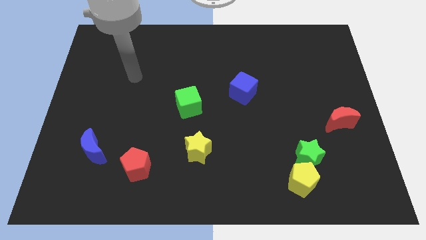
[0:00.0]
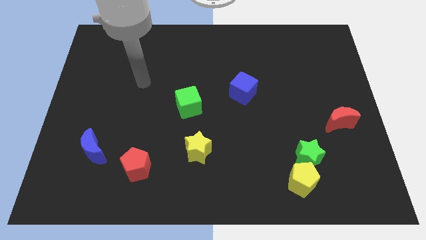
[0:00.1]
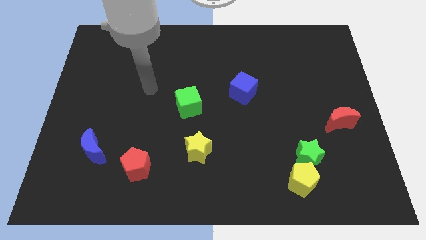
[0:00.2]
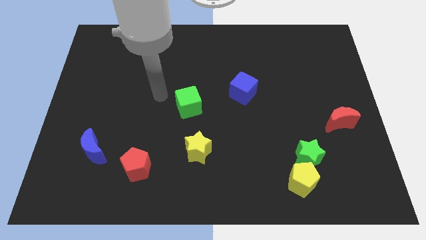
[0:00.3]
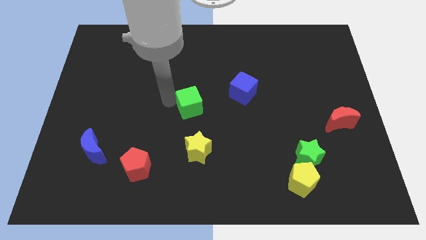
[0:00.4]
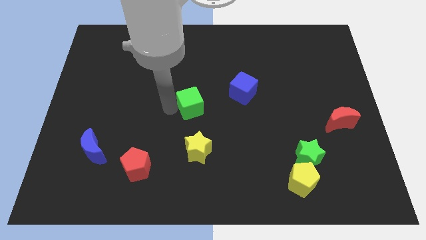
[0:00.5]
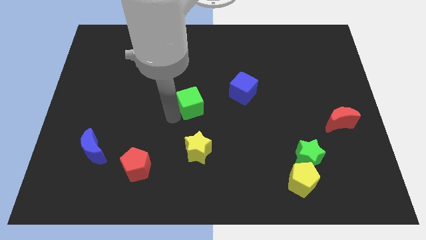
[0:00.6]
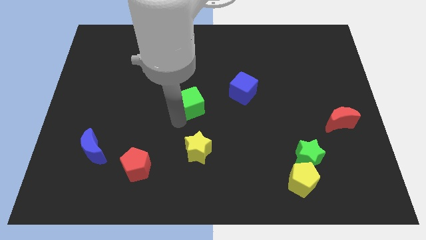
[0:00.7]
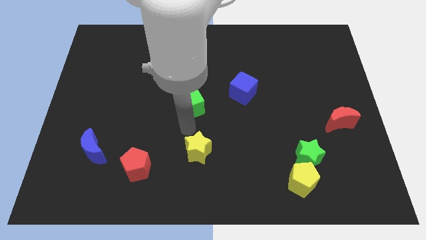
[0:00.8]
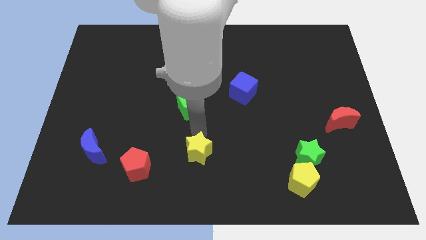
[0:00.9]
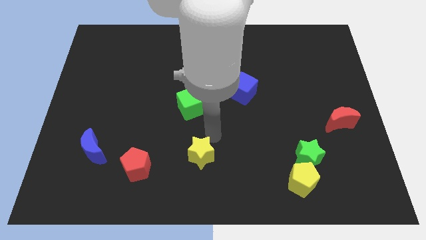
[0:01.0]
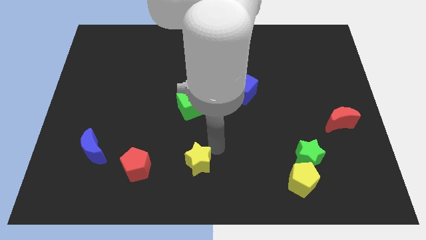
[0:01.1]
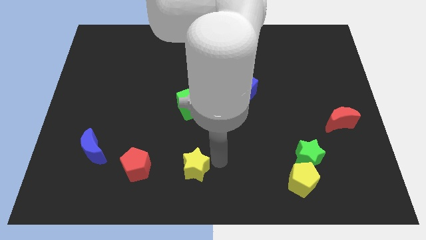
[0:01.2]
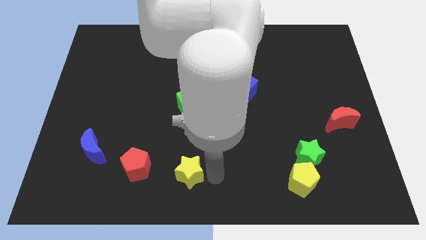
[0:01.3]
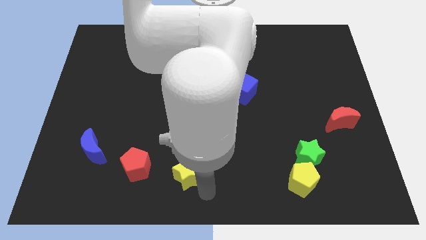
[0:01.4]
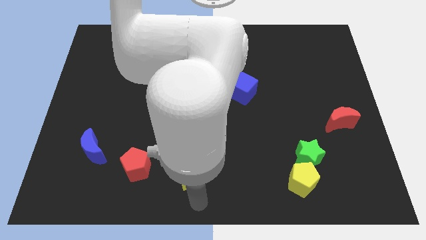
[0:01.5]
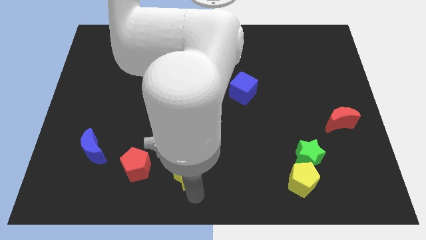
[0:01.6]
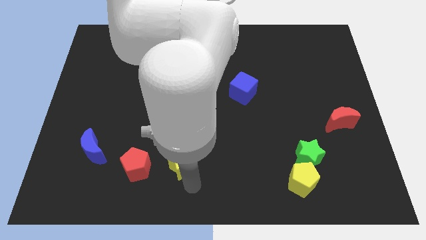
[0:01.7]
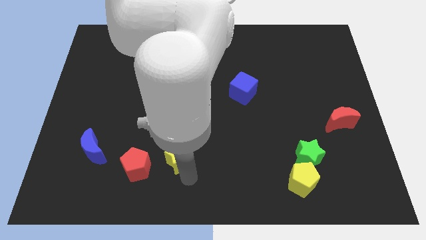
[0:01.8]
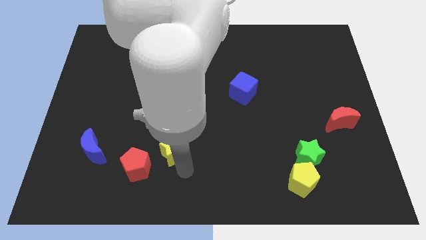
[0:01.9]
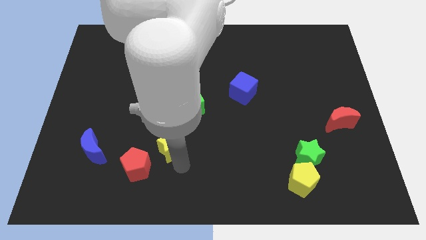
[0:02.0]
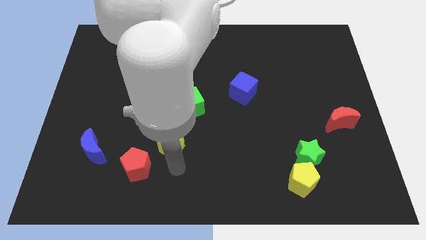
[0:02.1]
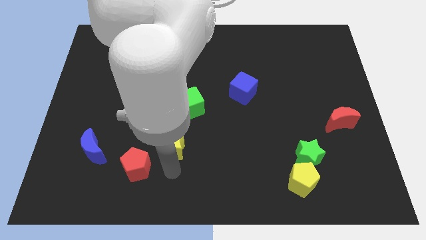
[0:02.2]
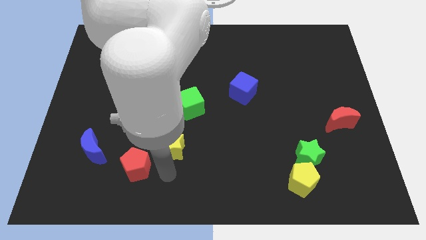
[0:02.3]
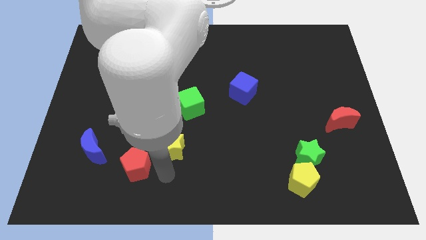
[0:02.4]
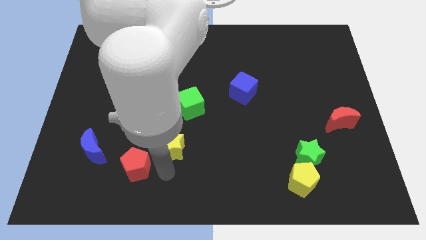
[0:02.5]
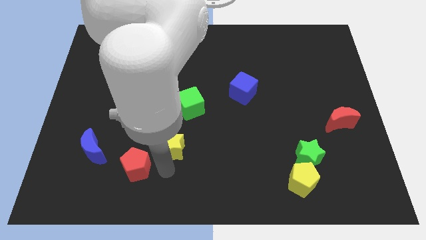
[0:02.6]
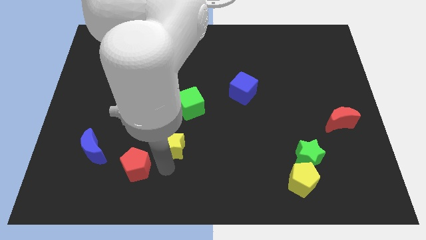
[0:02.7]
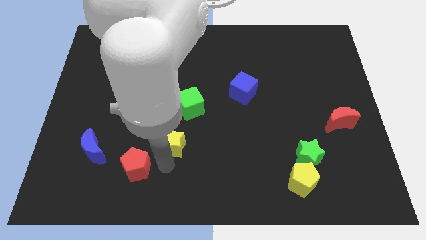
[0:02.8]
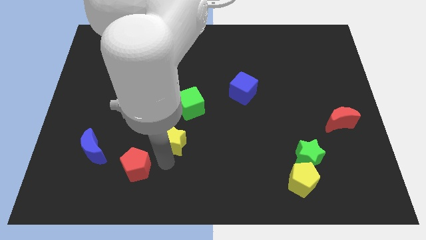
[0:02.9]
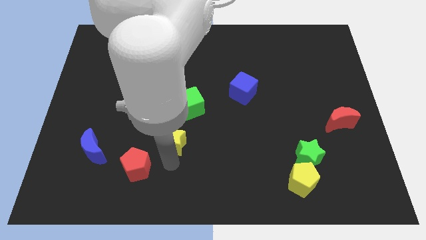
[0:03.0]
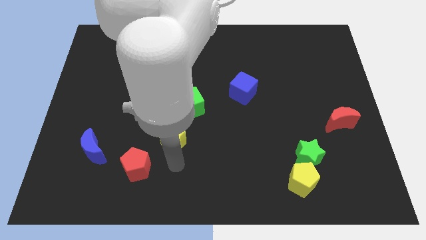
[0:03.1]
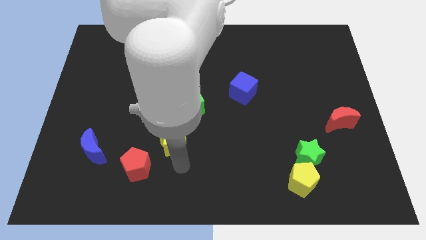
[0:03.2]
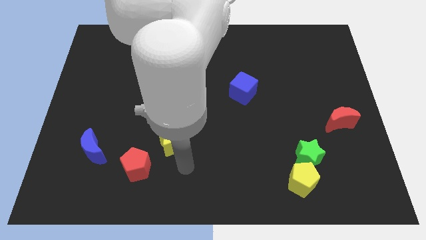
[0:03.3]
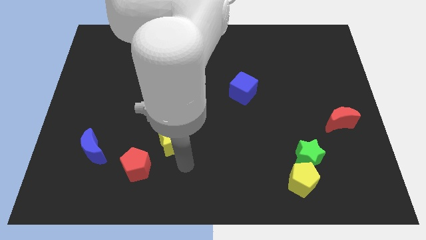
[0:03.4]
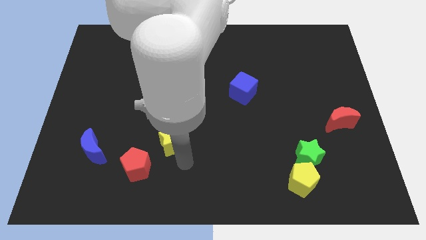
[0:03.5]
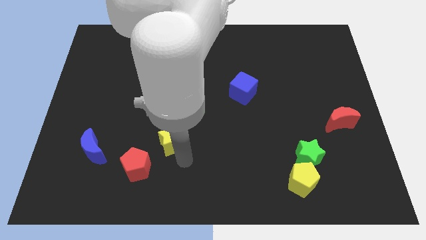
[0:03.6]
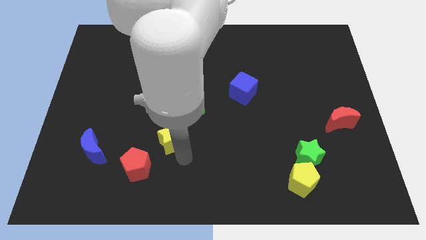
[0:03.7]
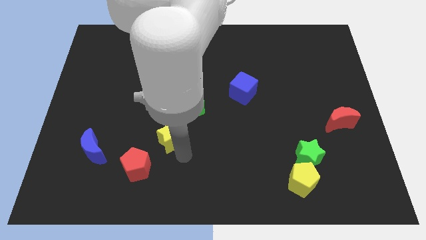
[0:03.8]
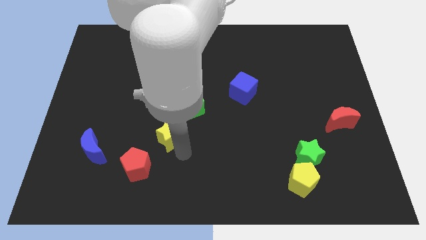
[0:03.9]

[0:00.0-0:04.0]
move the yellow star up and left slightly

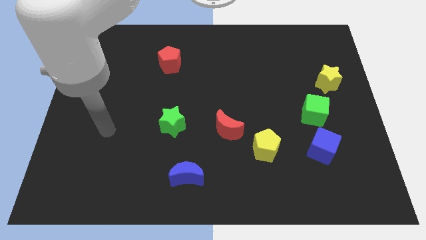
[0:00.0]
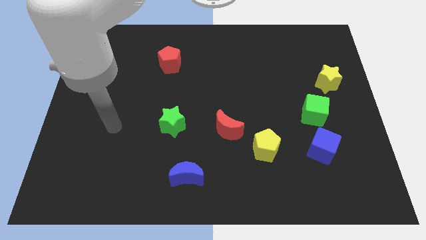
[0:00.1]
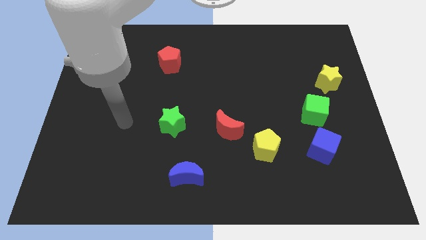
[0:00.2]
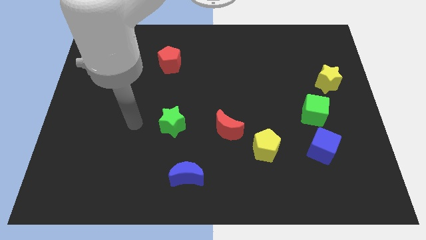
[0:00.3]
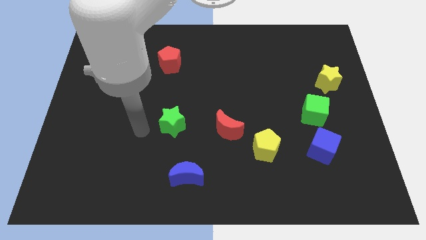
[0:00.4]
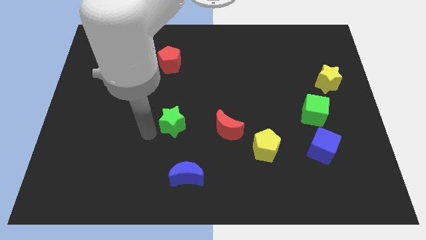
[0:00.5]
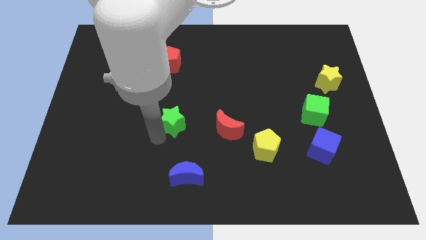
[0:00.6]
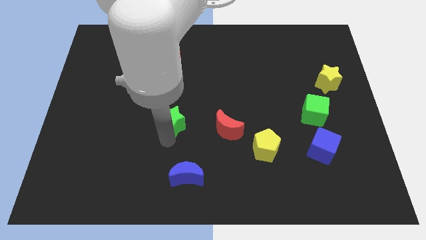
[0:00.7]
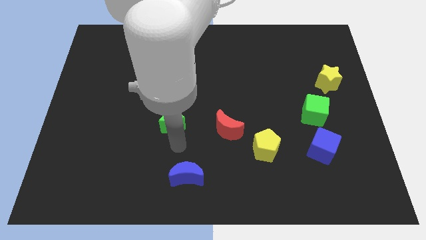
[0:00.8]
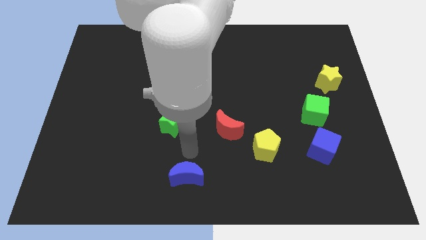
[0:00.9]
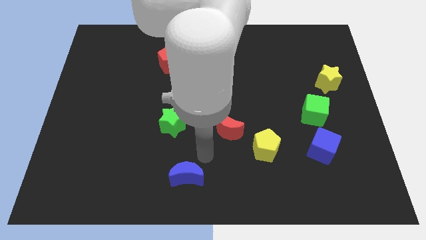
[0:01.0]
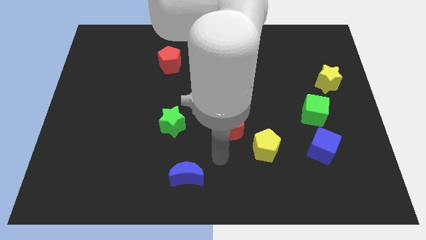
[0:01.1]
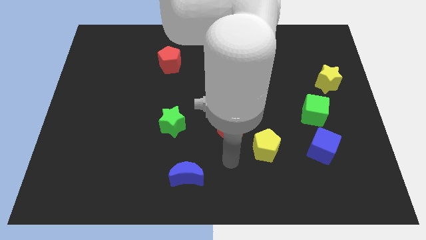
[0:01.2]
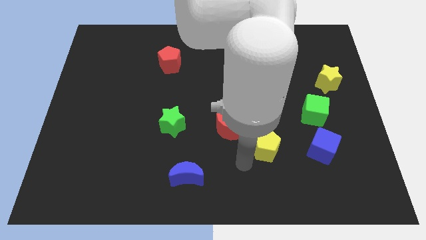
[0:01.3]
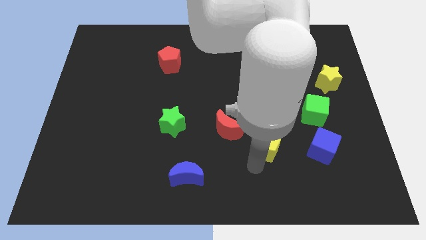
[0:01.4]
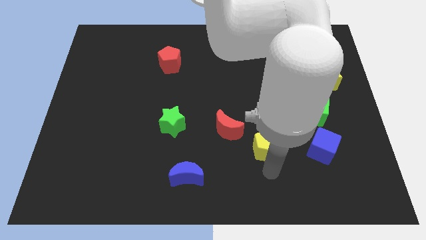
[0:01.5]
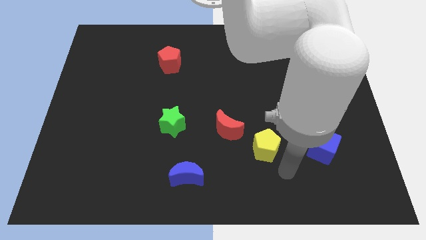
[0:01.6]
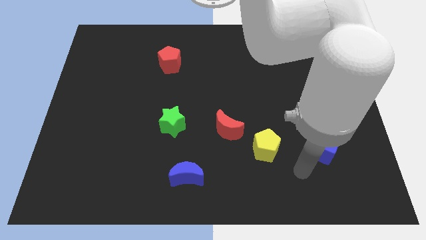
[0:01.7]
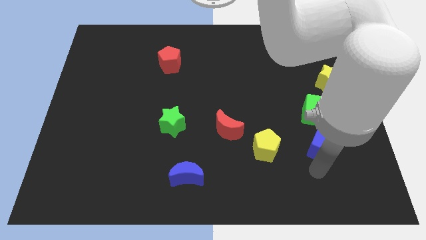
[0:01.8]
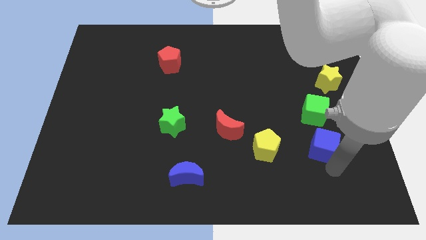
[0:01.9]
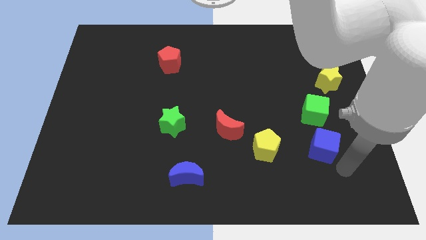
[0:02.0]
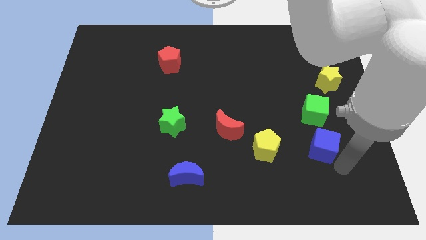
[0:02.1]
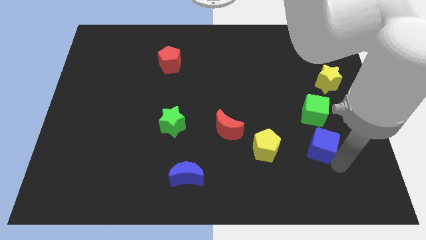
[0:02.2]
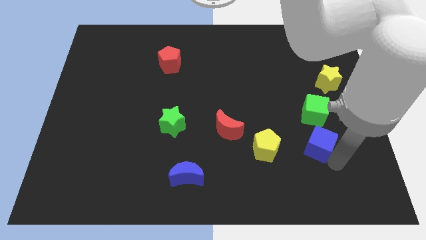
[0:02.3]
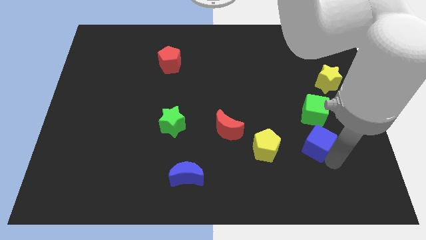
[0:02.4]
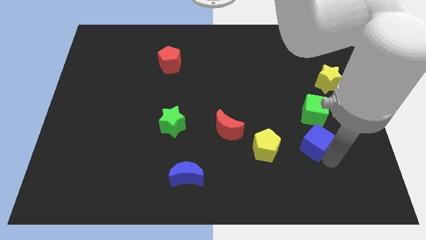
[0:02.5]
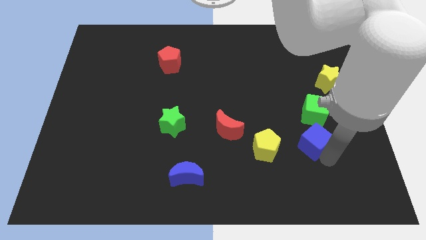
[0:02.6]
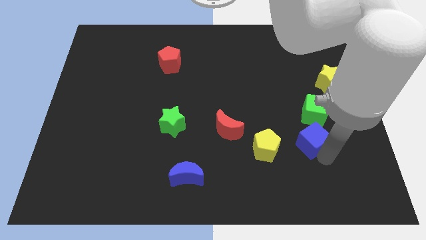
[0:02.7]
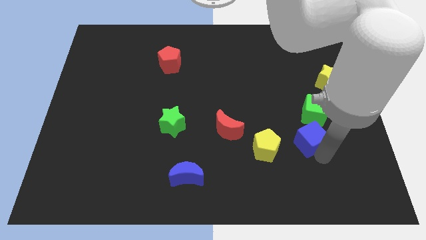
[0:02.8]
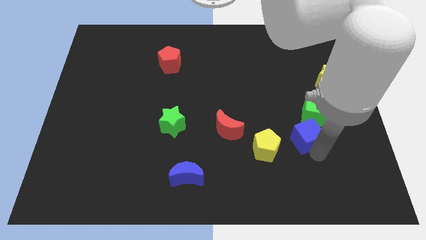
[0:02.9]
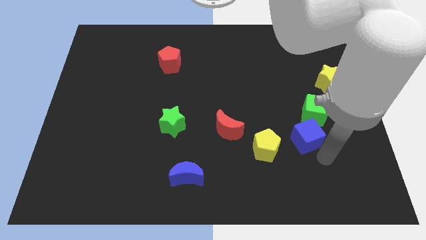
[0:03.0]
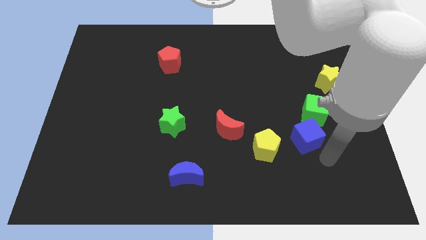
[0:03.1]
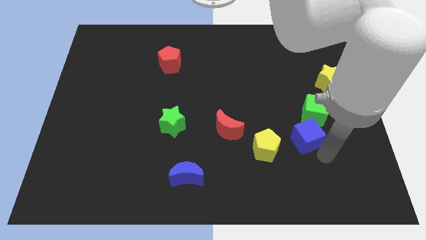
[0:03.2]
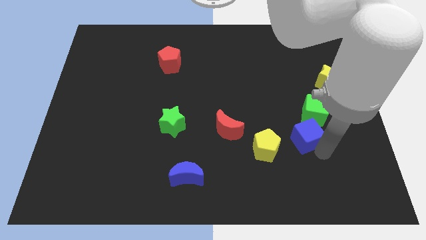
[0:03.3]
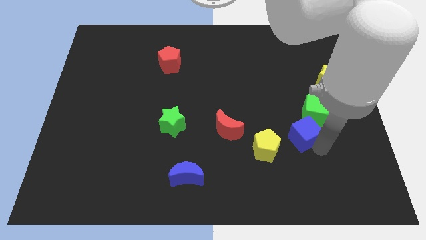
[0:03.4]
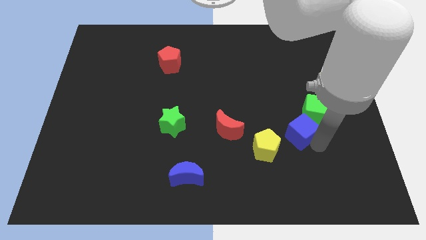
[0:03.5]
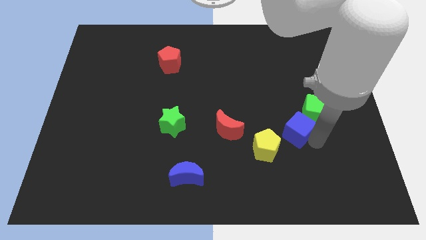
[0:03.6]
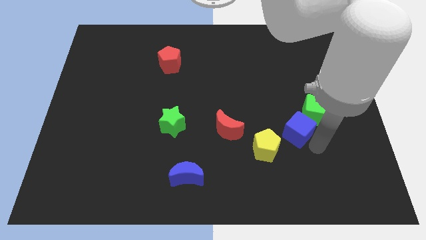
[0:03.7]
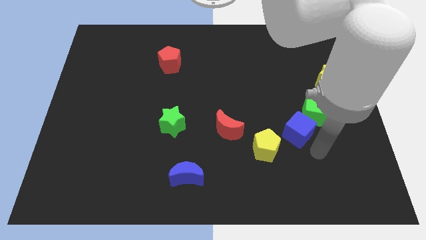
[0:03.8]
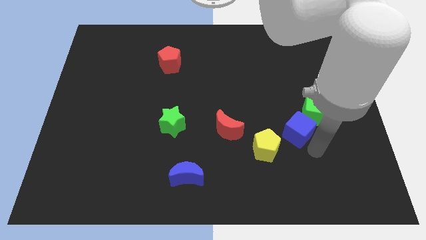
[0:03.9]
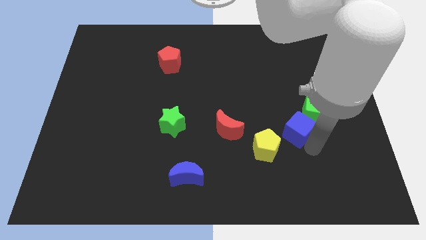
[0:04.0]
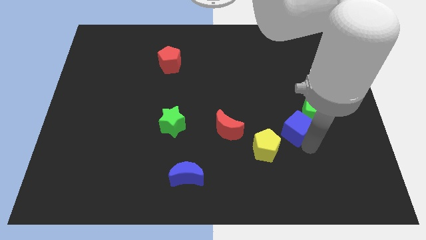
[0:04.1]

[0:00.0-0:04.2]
slightly push the blue cube diagonally upwards and left
